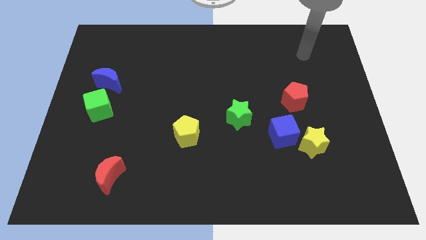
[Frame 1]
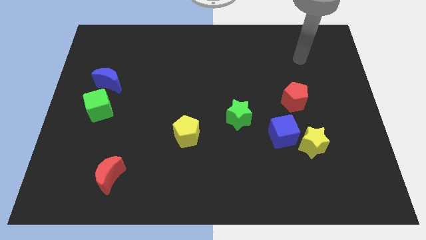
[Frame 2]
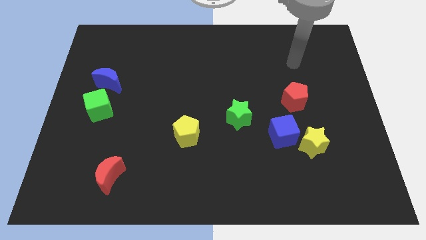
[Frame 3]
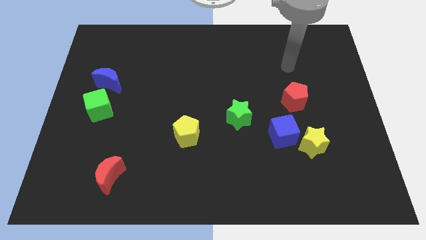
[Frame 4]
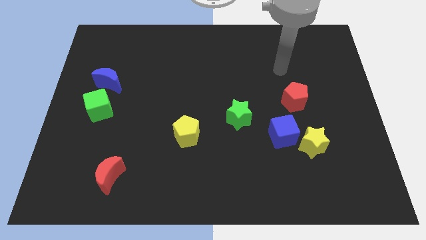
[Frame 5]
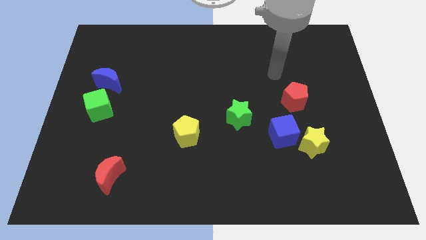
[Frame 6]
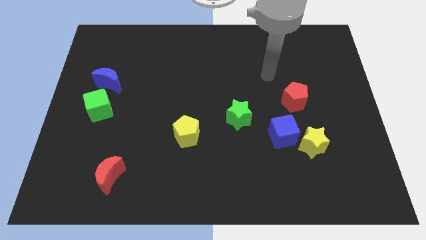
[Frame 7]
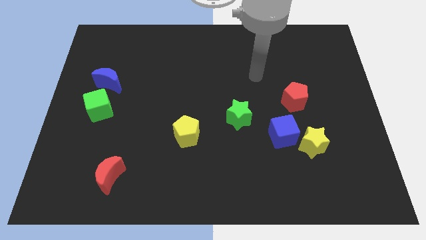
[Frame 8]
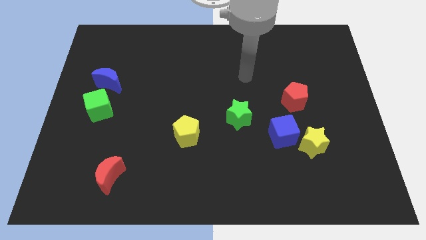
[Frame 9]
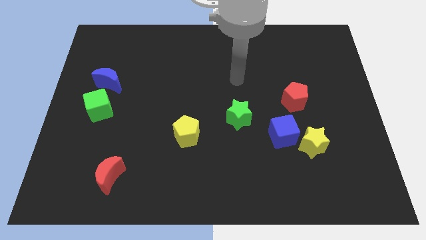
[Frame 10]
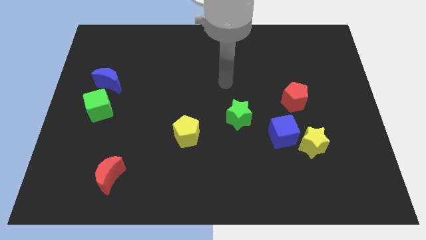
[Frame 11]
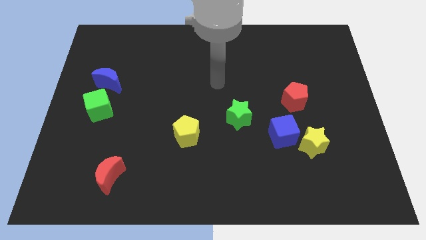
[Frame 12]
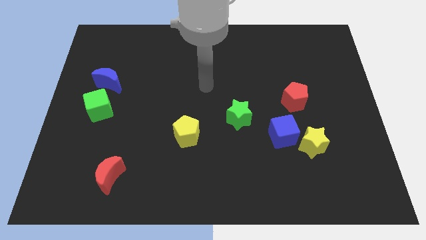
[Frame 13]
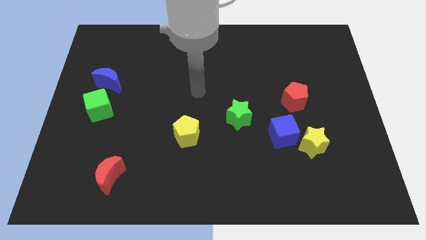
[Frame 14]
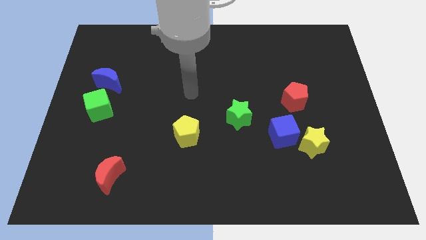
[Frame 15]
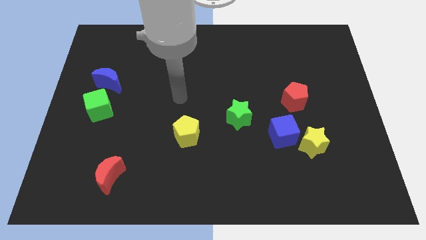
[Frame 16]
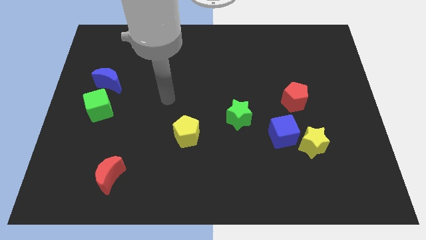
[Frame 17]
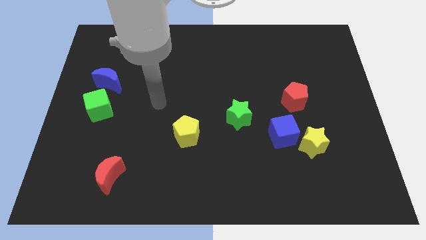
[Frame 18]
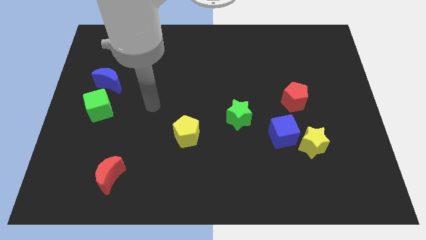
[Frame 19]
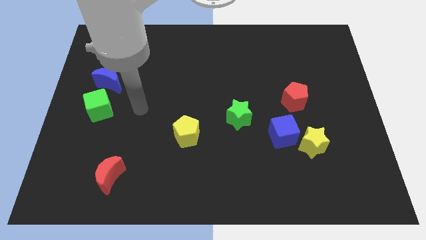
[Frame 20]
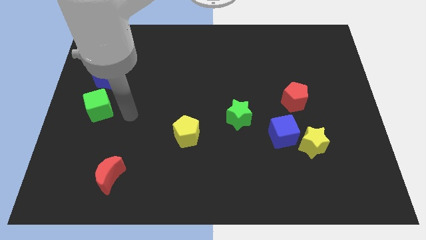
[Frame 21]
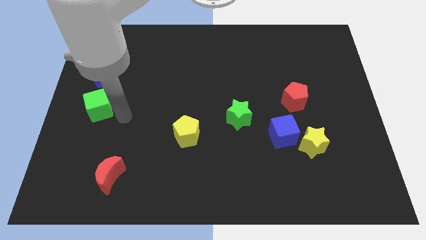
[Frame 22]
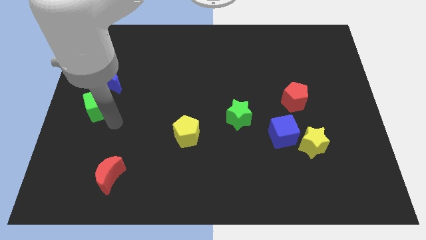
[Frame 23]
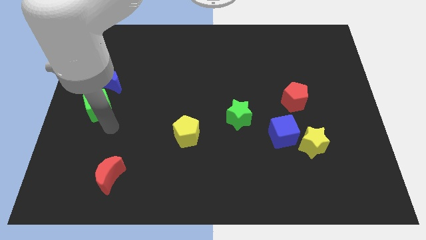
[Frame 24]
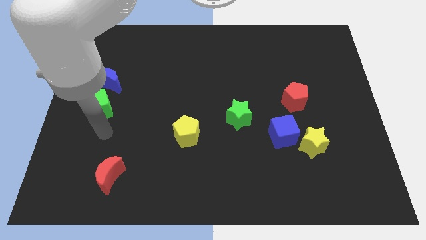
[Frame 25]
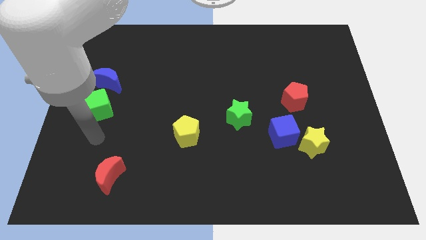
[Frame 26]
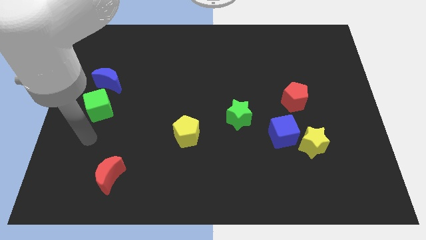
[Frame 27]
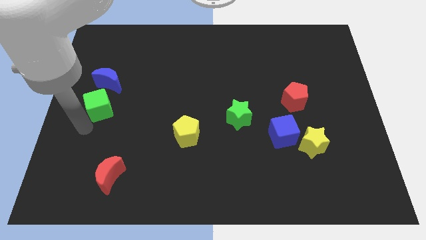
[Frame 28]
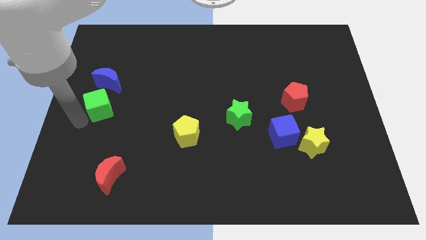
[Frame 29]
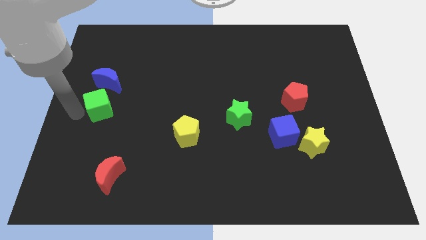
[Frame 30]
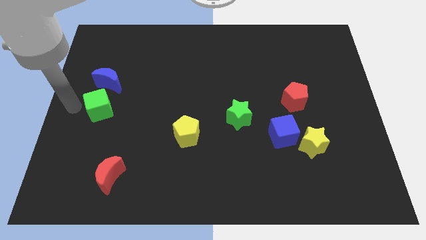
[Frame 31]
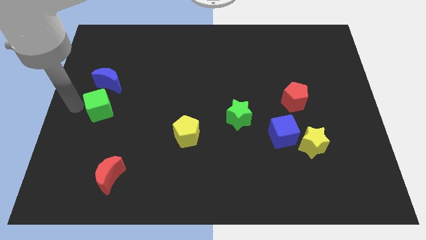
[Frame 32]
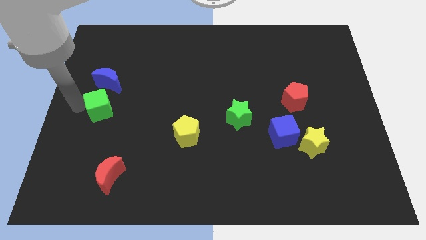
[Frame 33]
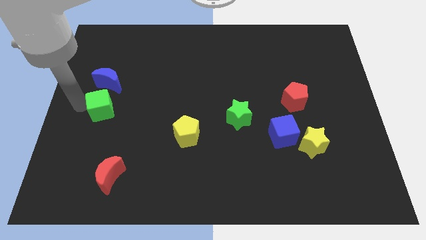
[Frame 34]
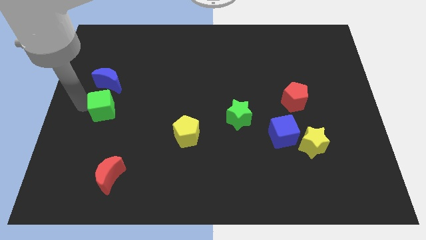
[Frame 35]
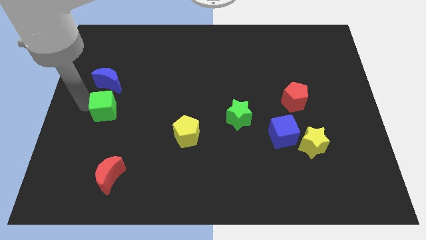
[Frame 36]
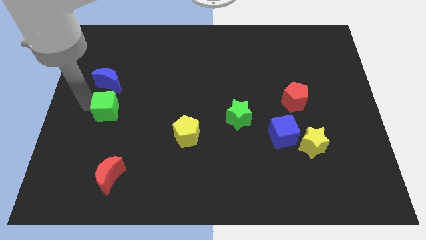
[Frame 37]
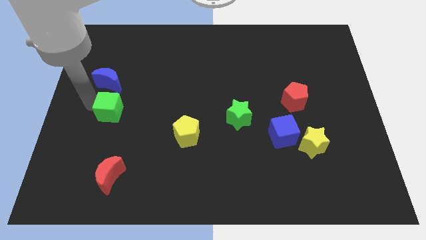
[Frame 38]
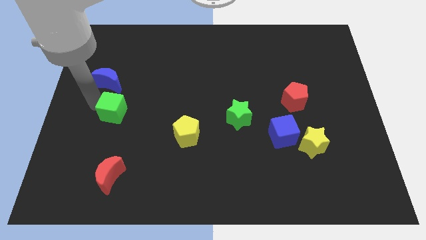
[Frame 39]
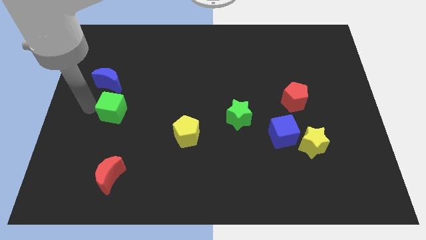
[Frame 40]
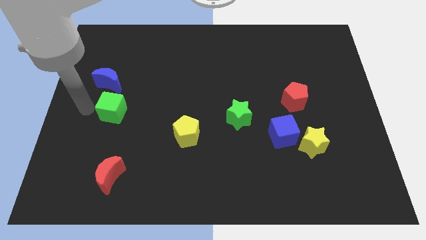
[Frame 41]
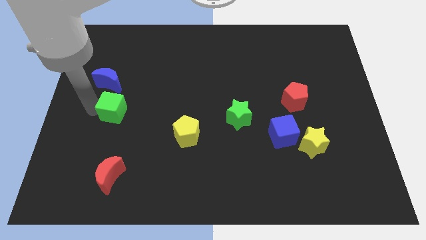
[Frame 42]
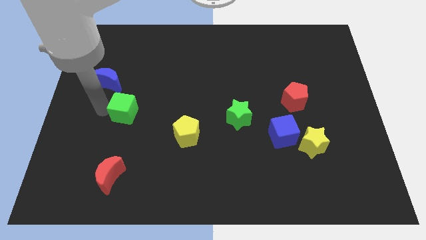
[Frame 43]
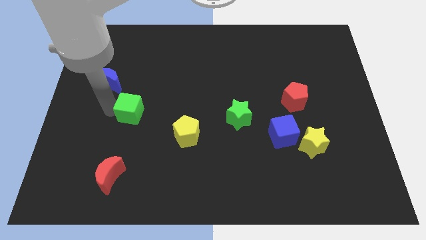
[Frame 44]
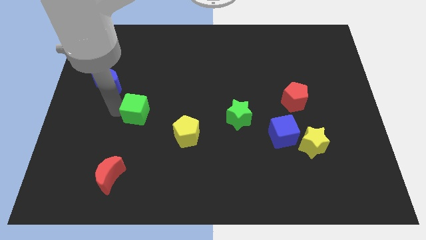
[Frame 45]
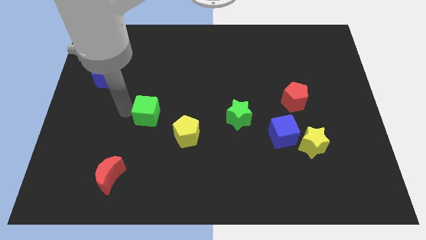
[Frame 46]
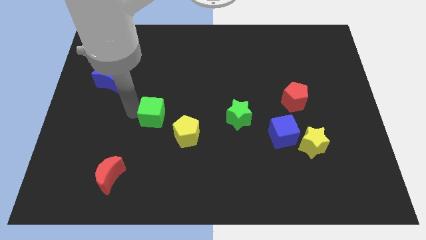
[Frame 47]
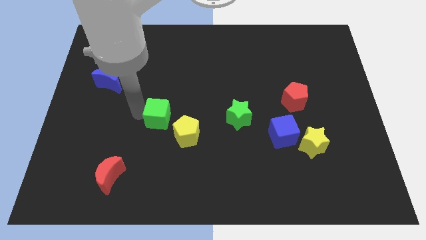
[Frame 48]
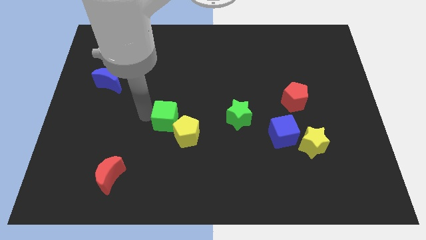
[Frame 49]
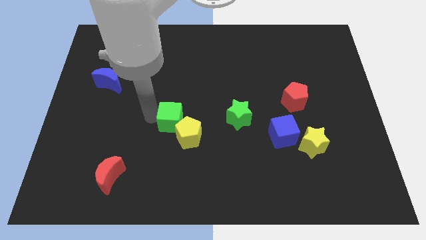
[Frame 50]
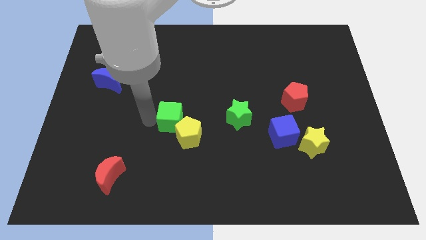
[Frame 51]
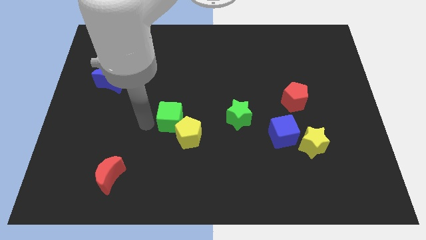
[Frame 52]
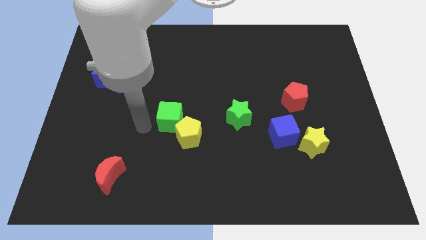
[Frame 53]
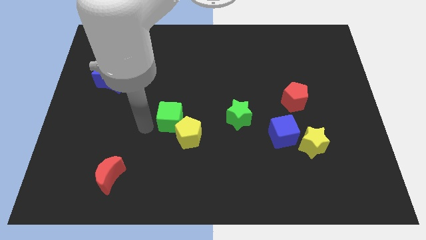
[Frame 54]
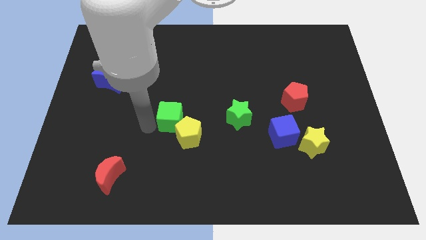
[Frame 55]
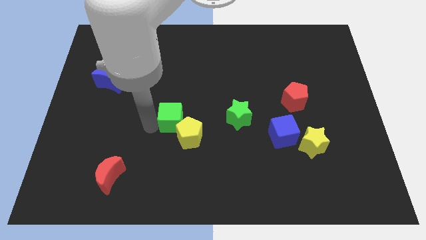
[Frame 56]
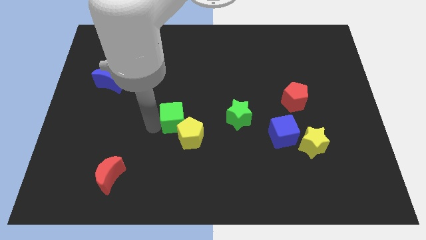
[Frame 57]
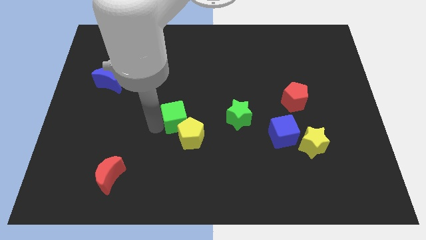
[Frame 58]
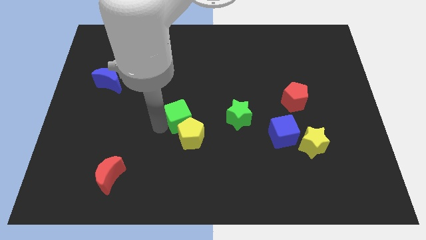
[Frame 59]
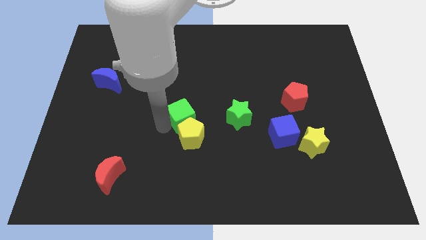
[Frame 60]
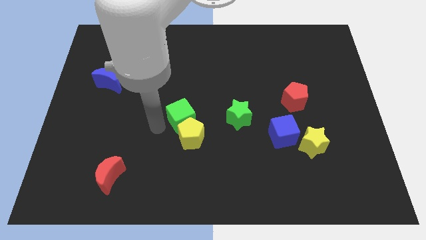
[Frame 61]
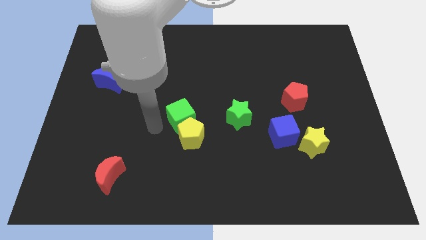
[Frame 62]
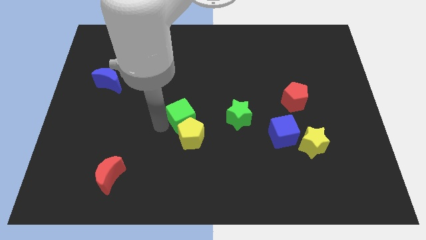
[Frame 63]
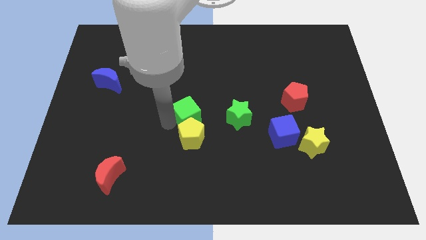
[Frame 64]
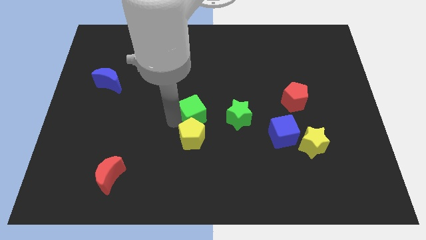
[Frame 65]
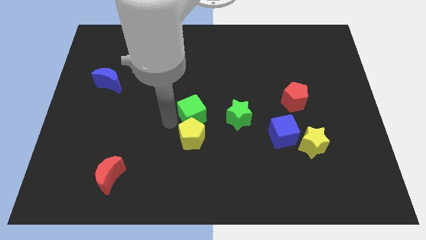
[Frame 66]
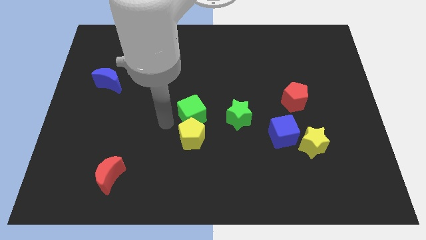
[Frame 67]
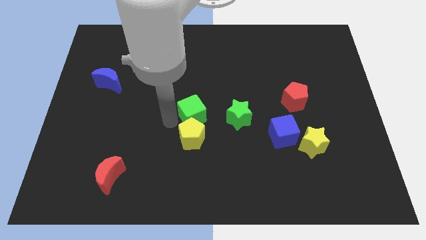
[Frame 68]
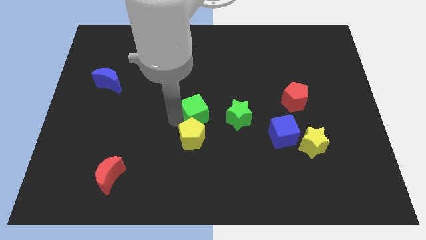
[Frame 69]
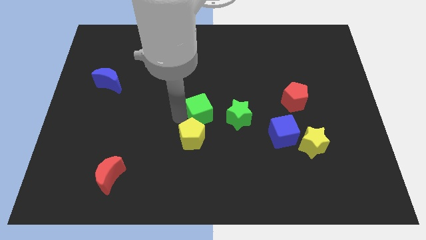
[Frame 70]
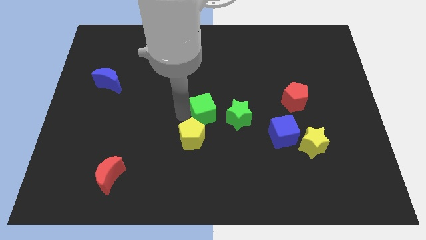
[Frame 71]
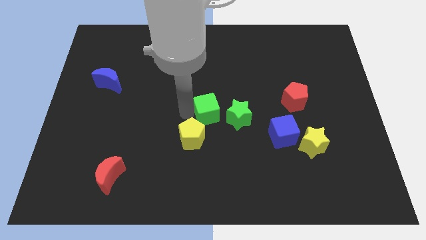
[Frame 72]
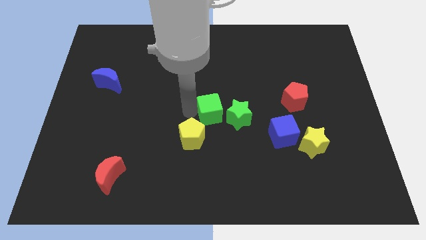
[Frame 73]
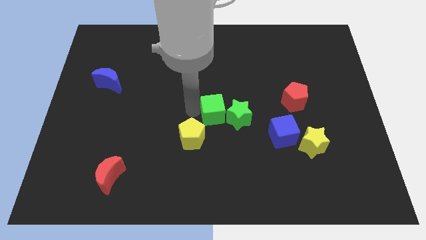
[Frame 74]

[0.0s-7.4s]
push the green cube towards the green star
